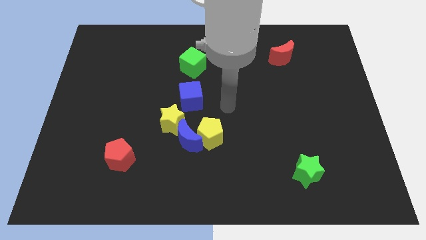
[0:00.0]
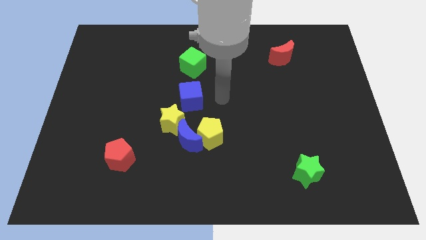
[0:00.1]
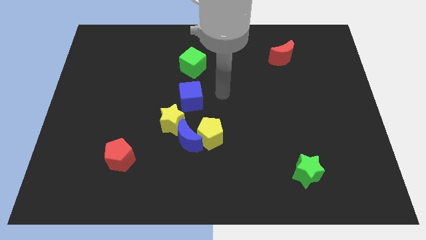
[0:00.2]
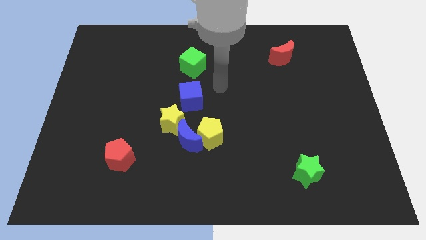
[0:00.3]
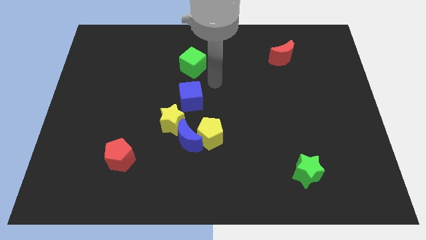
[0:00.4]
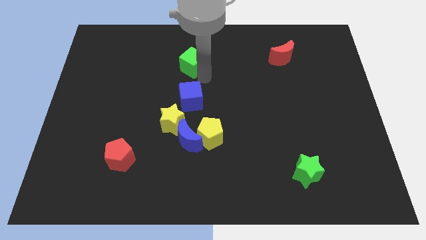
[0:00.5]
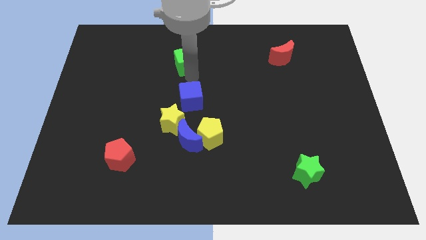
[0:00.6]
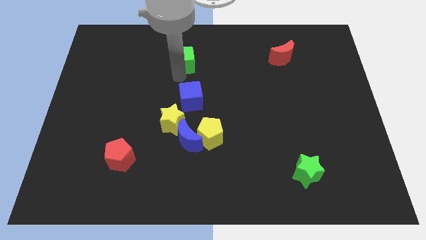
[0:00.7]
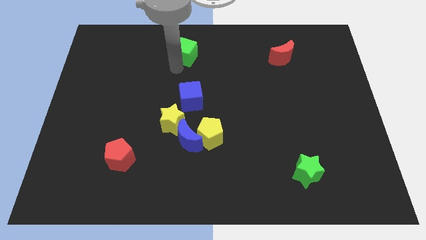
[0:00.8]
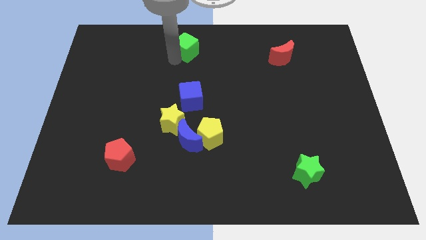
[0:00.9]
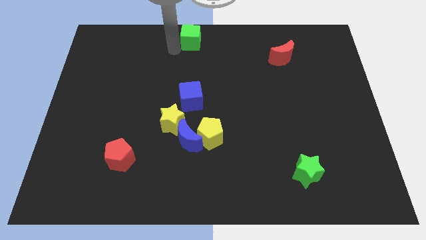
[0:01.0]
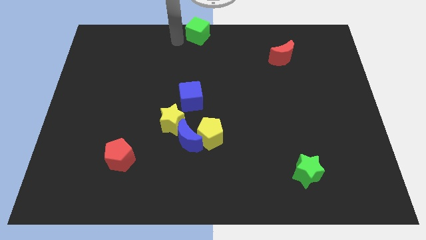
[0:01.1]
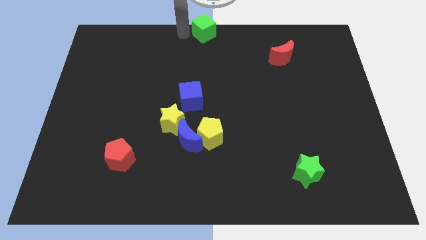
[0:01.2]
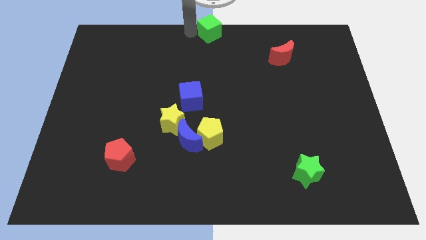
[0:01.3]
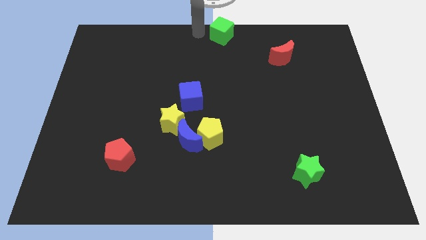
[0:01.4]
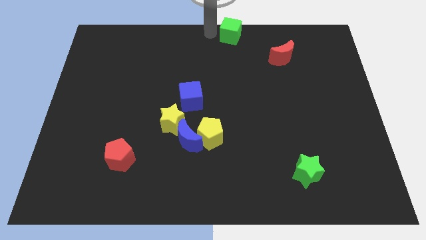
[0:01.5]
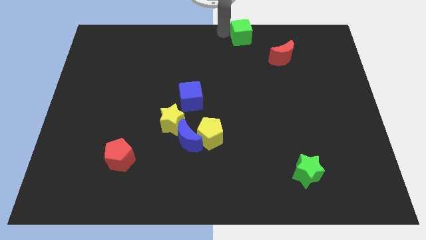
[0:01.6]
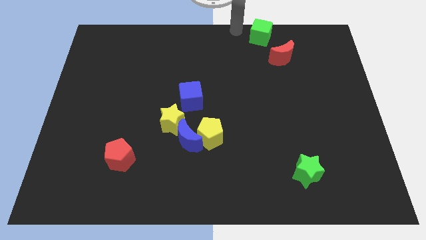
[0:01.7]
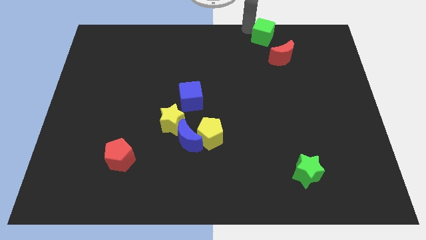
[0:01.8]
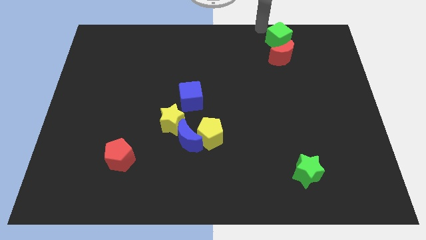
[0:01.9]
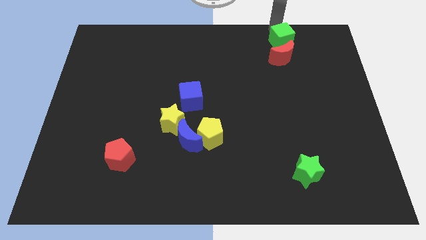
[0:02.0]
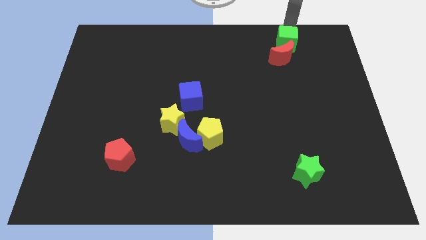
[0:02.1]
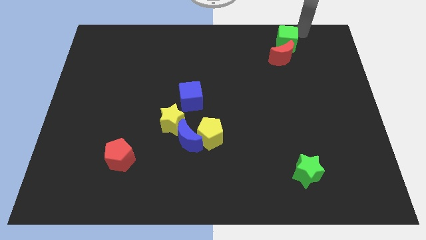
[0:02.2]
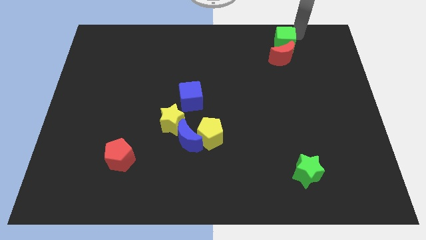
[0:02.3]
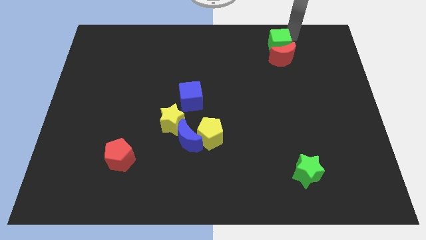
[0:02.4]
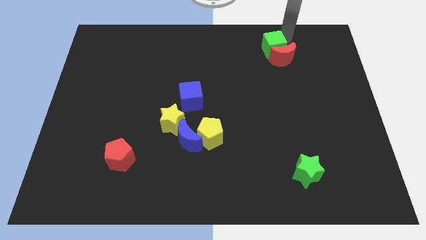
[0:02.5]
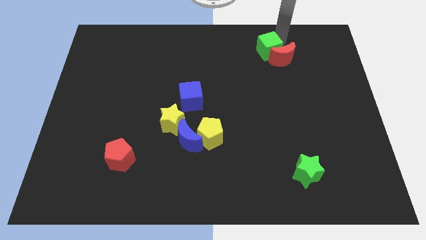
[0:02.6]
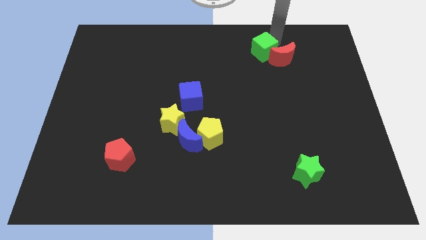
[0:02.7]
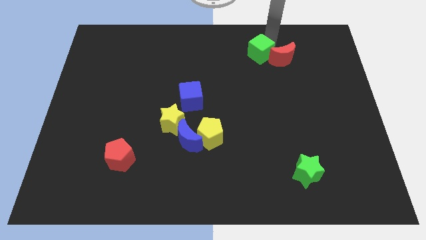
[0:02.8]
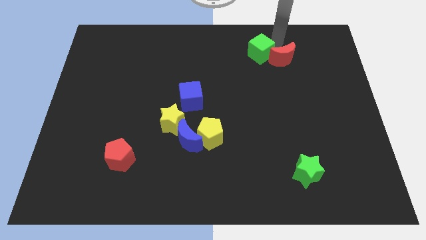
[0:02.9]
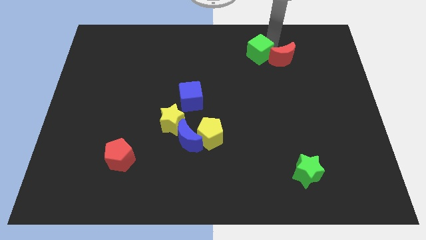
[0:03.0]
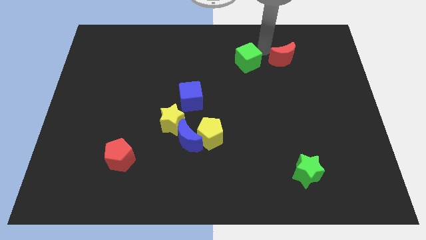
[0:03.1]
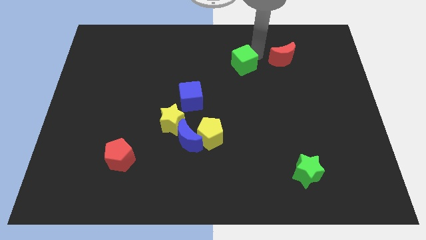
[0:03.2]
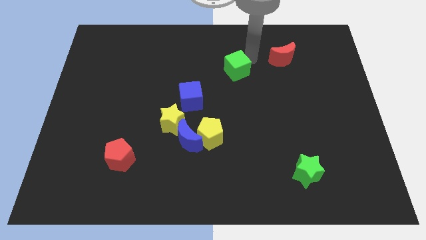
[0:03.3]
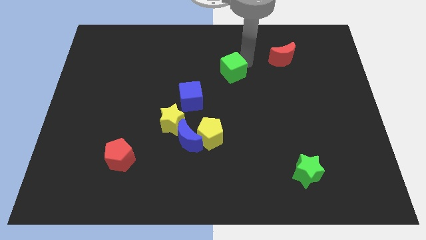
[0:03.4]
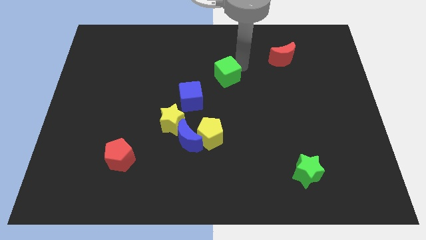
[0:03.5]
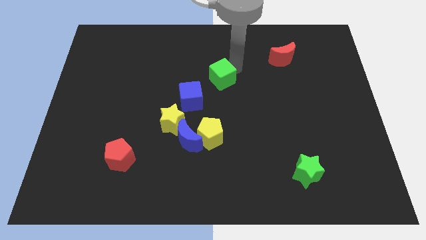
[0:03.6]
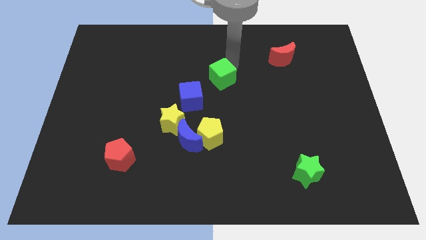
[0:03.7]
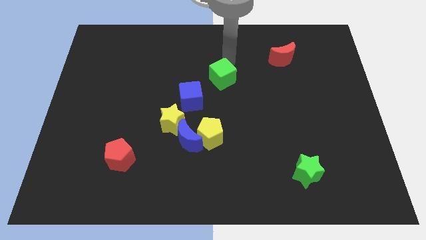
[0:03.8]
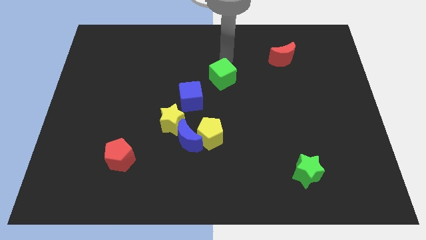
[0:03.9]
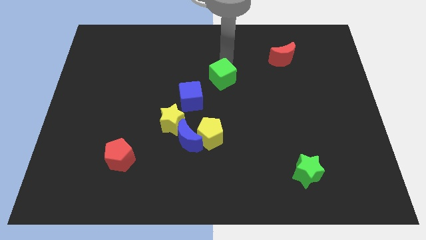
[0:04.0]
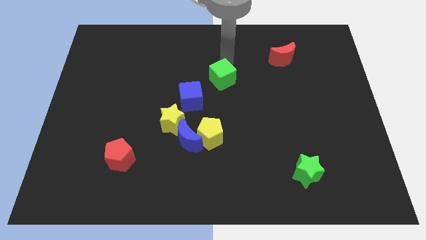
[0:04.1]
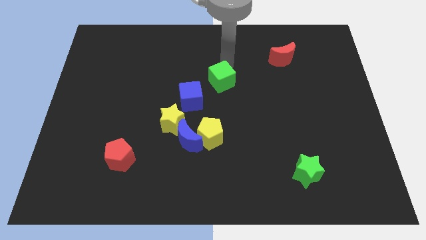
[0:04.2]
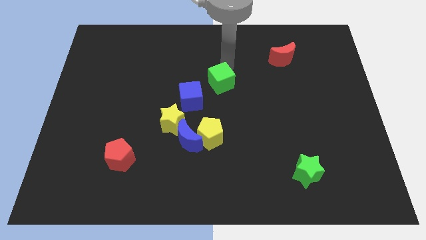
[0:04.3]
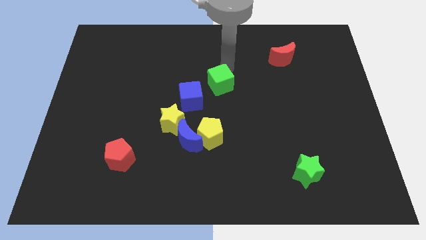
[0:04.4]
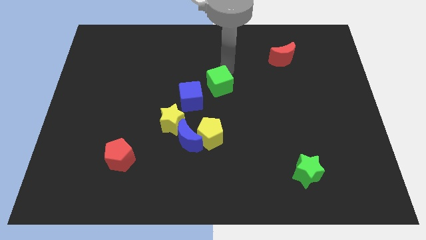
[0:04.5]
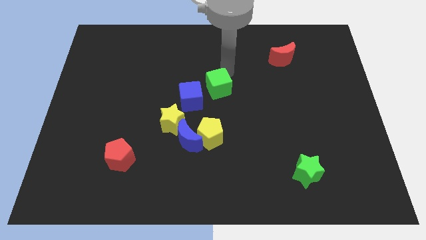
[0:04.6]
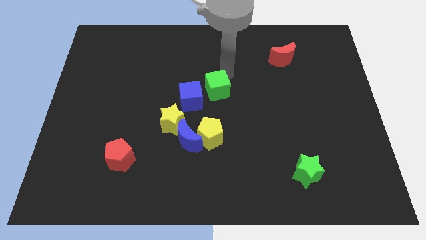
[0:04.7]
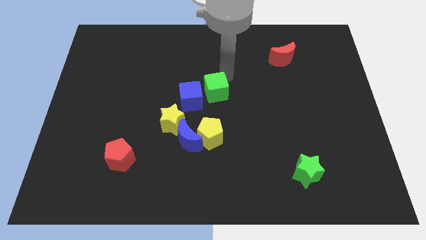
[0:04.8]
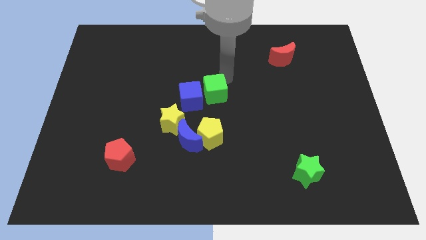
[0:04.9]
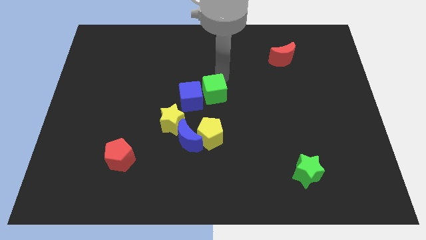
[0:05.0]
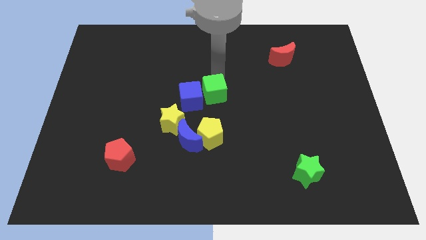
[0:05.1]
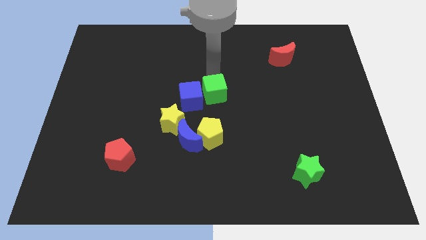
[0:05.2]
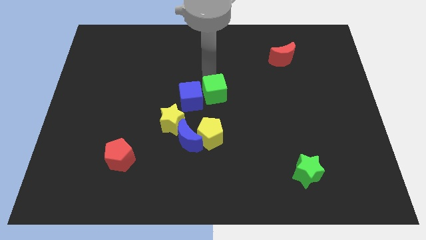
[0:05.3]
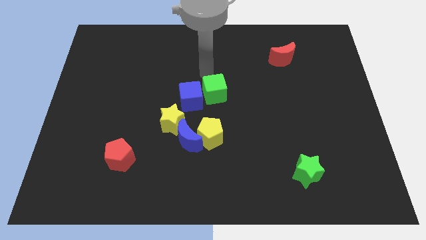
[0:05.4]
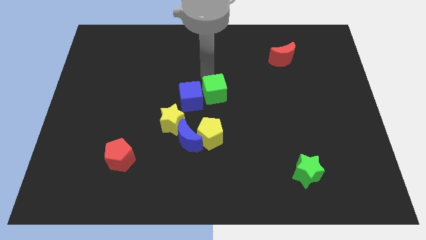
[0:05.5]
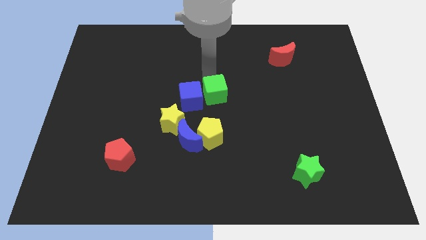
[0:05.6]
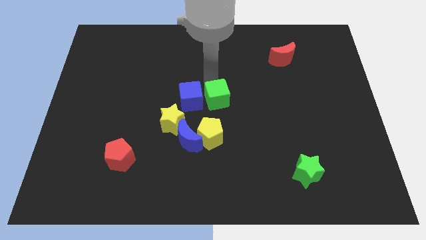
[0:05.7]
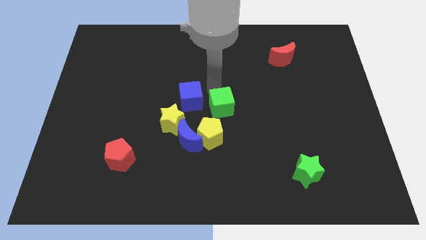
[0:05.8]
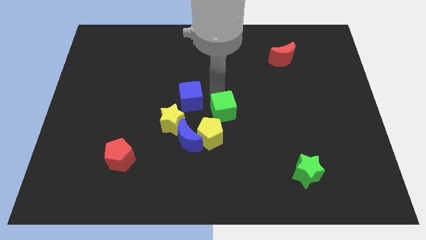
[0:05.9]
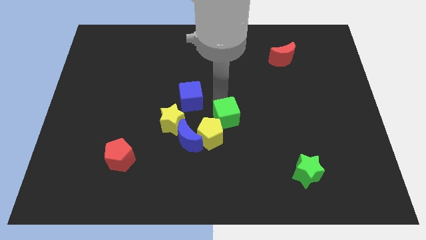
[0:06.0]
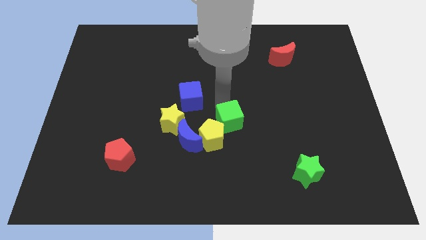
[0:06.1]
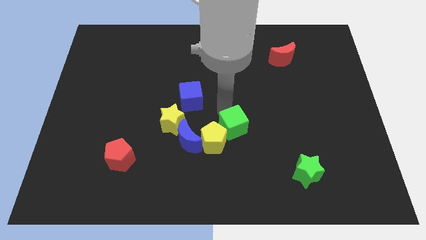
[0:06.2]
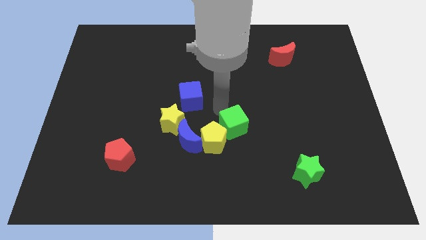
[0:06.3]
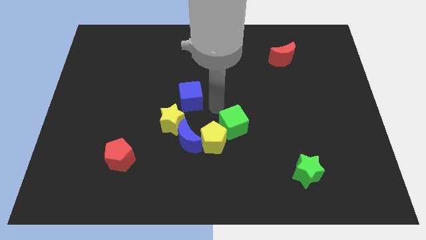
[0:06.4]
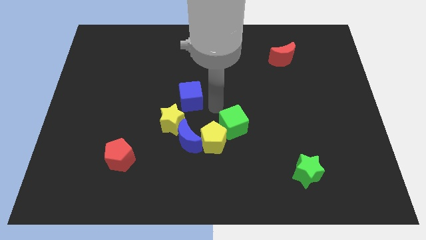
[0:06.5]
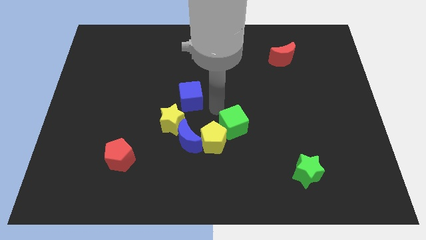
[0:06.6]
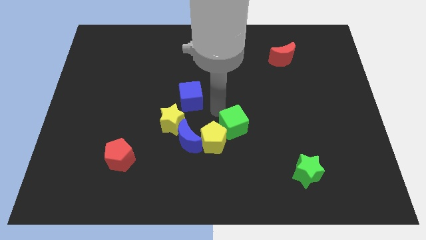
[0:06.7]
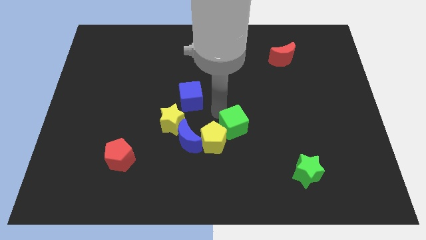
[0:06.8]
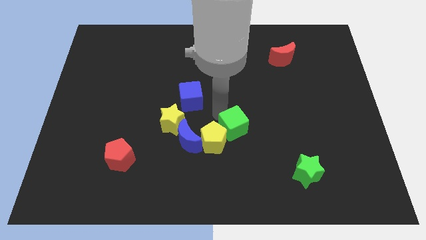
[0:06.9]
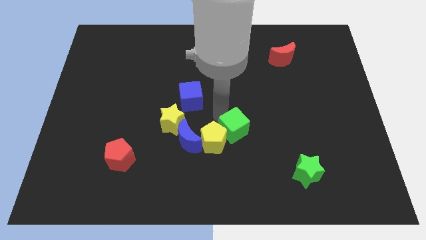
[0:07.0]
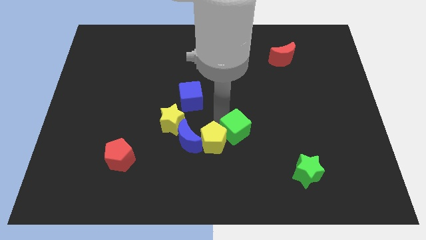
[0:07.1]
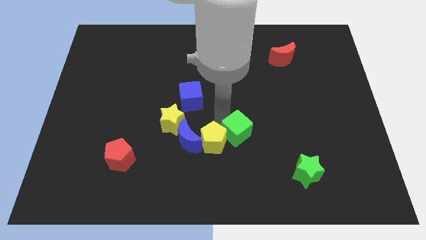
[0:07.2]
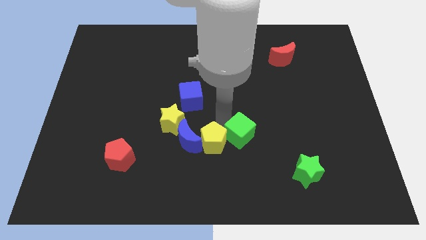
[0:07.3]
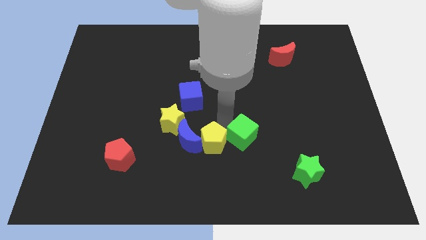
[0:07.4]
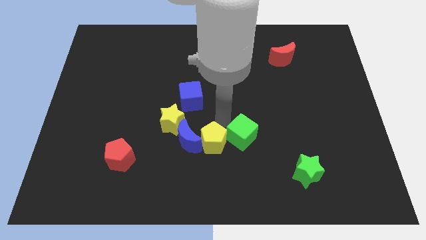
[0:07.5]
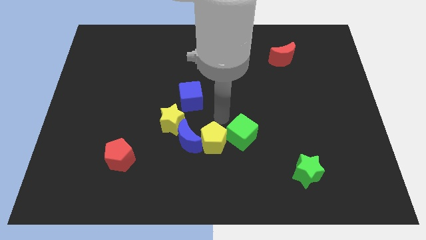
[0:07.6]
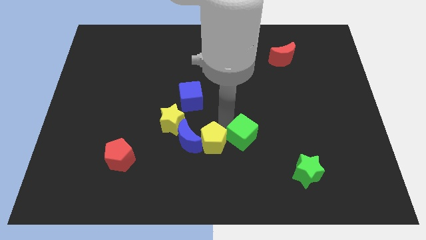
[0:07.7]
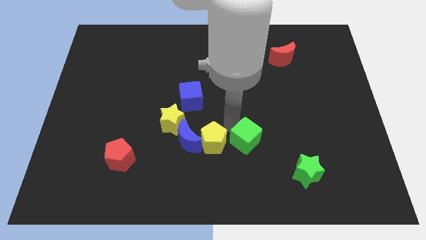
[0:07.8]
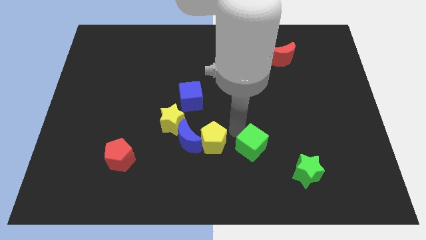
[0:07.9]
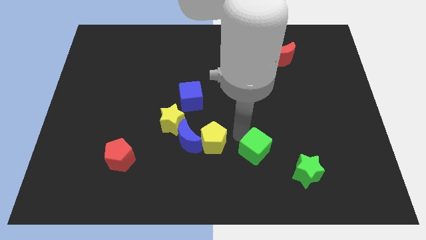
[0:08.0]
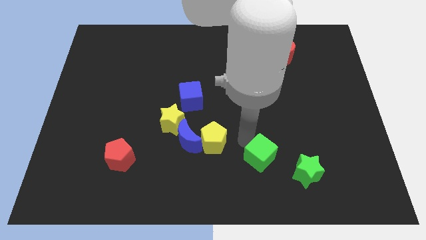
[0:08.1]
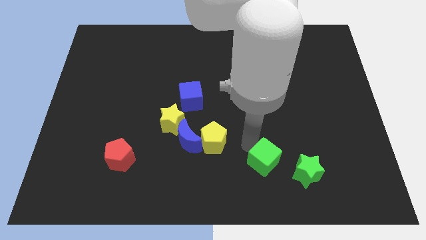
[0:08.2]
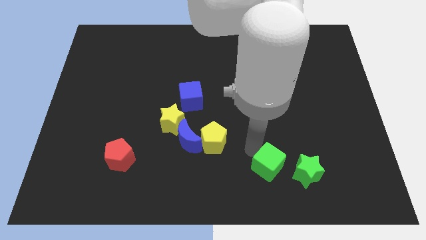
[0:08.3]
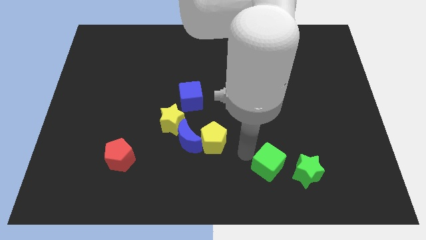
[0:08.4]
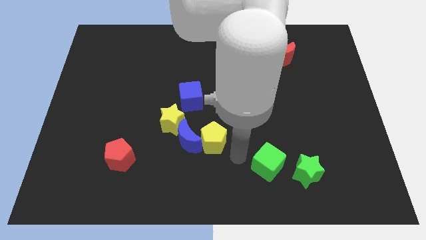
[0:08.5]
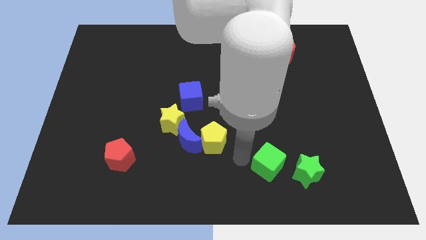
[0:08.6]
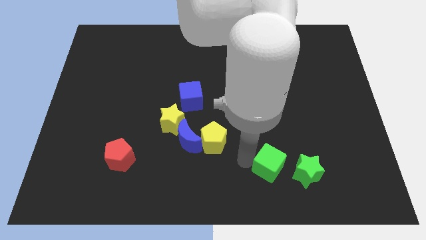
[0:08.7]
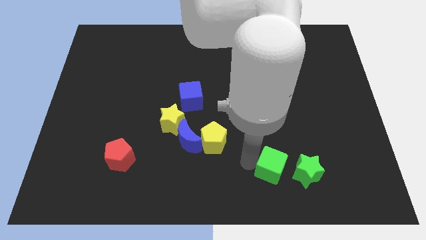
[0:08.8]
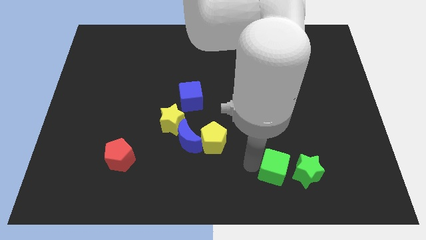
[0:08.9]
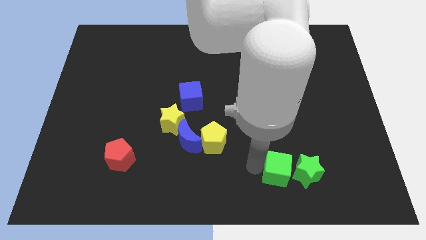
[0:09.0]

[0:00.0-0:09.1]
put the green cube to the green star
